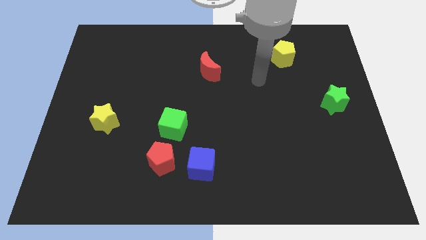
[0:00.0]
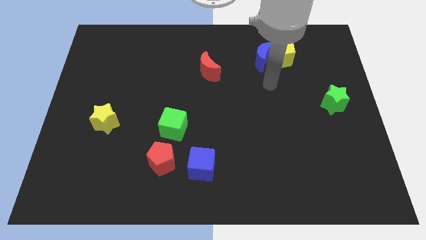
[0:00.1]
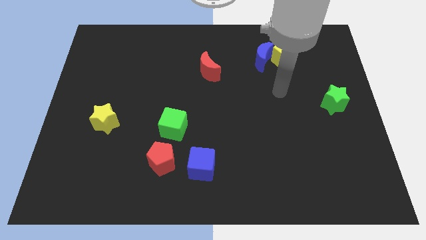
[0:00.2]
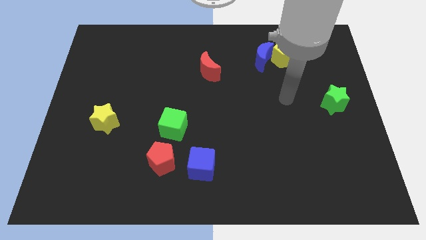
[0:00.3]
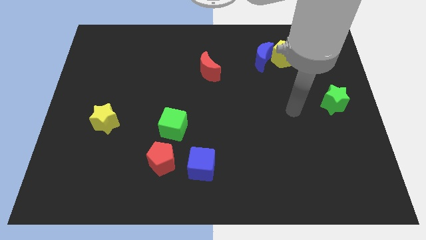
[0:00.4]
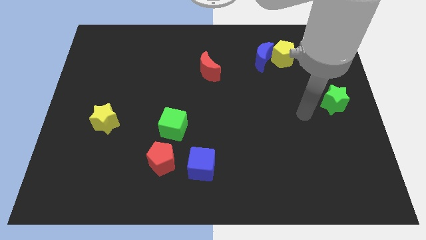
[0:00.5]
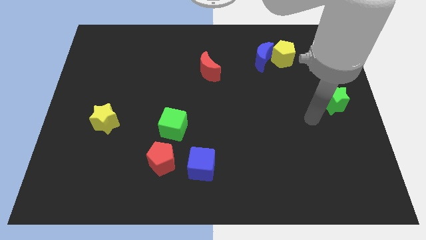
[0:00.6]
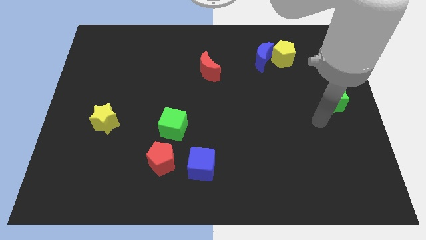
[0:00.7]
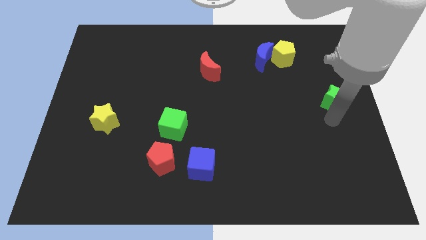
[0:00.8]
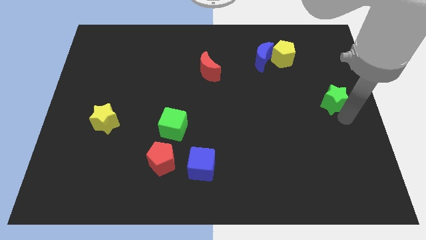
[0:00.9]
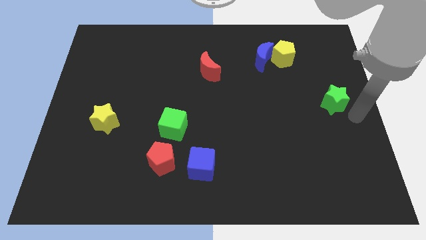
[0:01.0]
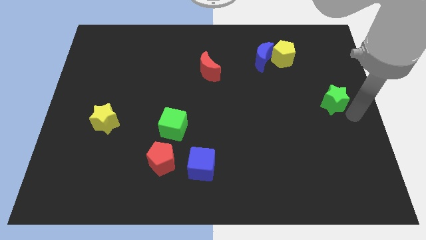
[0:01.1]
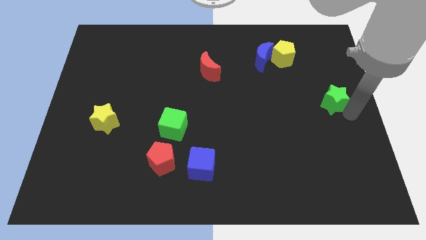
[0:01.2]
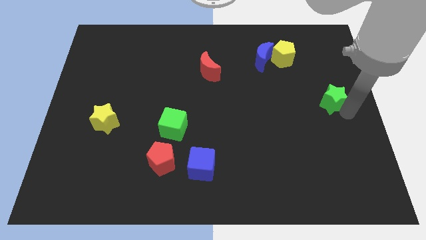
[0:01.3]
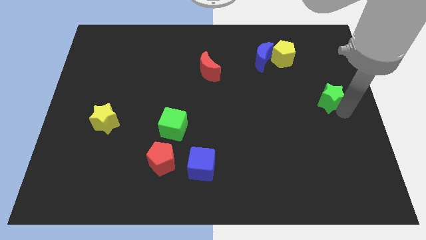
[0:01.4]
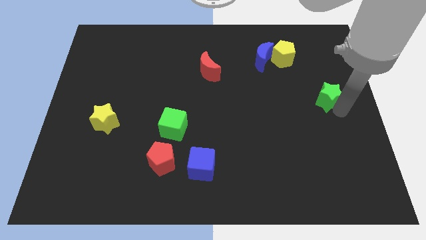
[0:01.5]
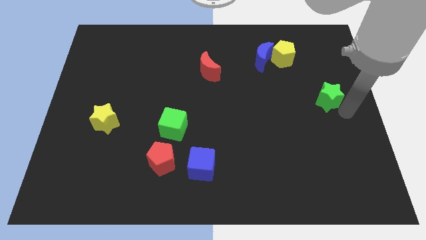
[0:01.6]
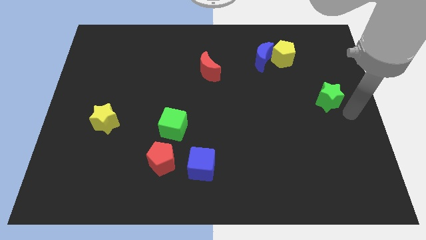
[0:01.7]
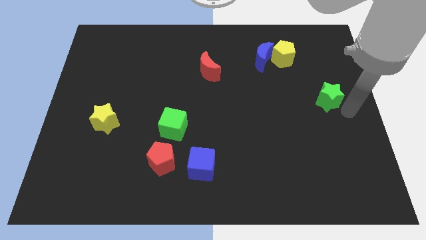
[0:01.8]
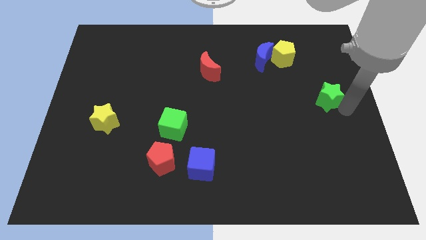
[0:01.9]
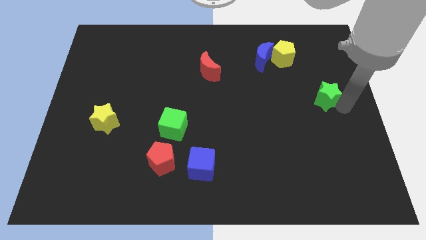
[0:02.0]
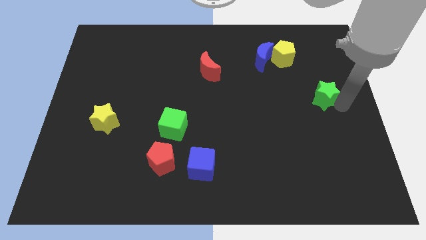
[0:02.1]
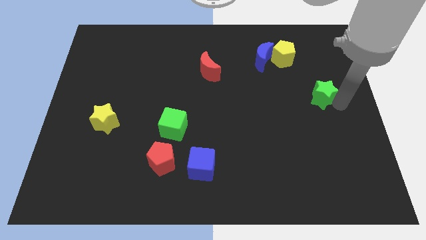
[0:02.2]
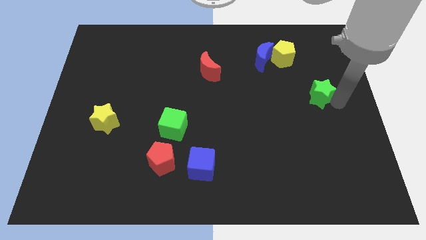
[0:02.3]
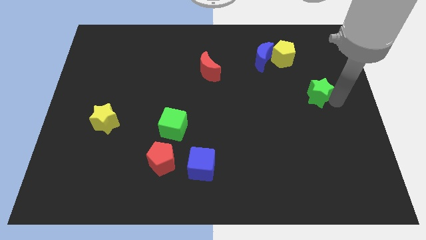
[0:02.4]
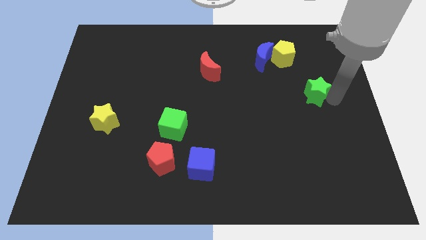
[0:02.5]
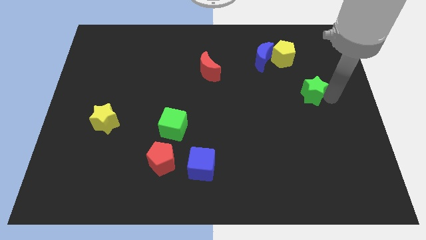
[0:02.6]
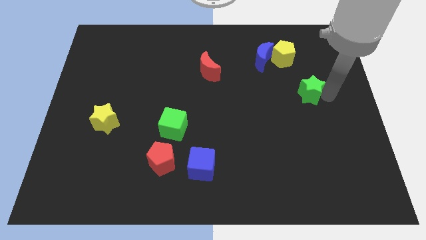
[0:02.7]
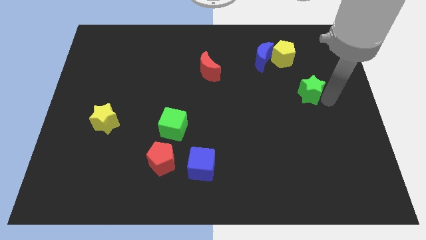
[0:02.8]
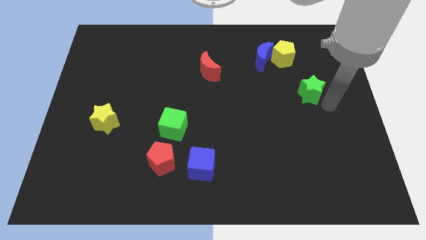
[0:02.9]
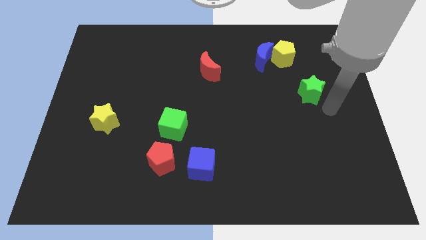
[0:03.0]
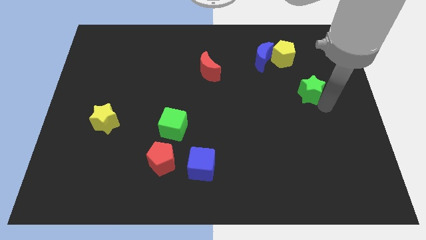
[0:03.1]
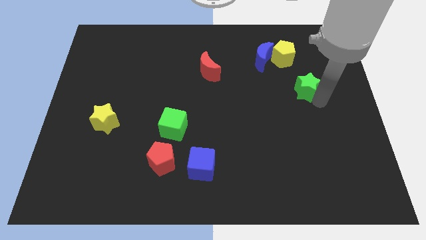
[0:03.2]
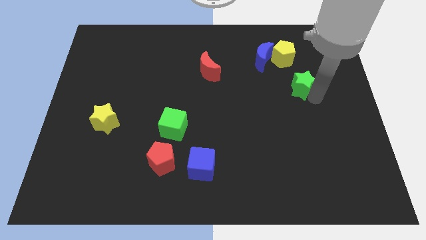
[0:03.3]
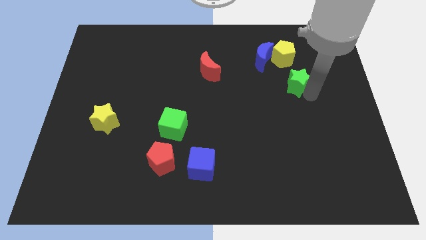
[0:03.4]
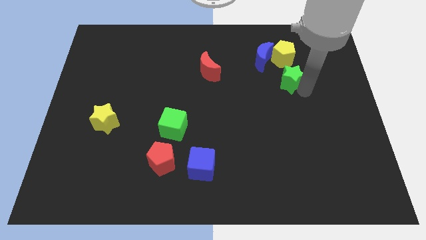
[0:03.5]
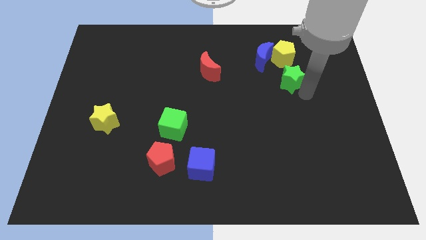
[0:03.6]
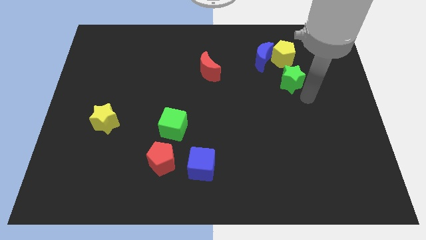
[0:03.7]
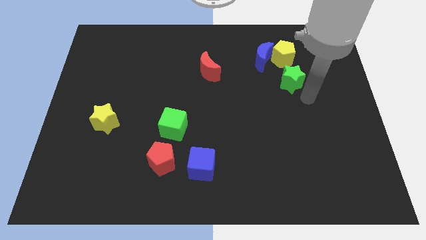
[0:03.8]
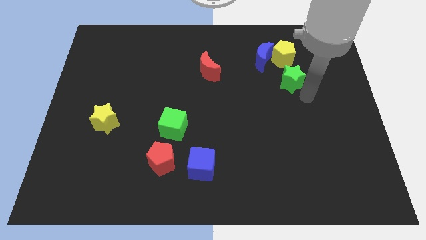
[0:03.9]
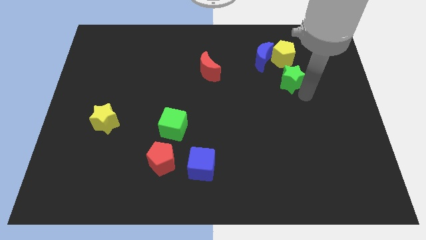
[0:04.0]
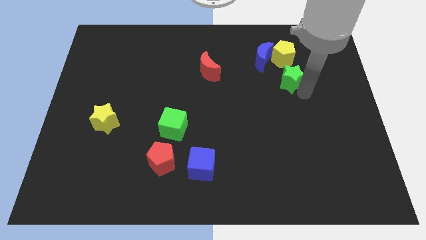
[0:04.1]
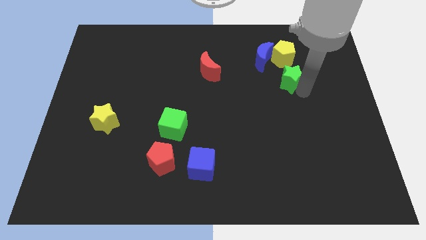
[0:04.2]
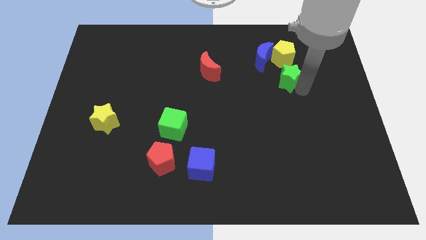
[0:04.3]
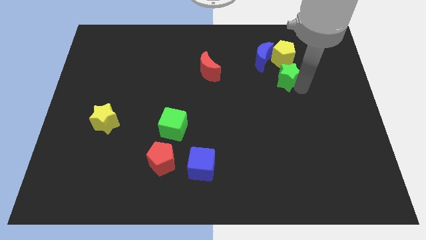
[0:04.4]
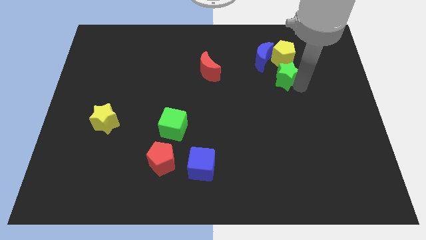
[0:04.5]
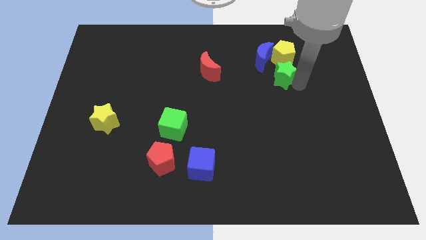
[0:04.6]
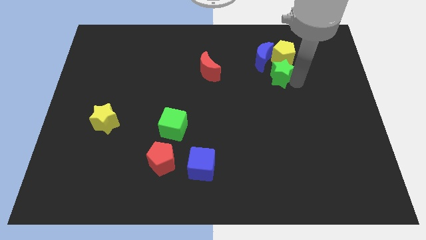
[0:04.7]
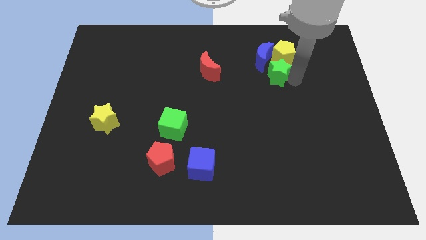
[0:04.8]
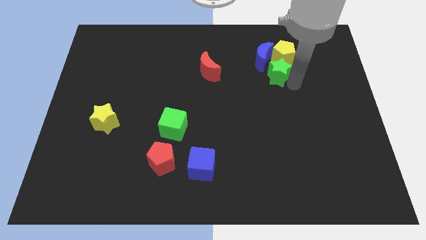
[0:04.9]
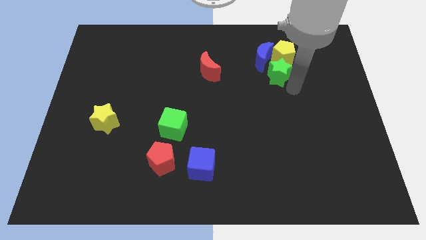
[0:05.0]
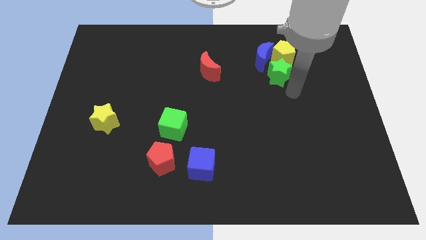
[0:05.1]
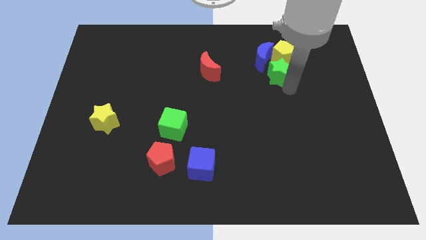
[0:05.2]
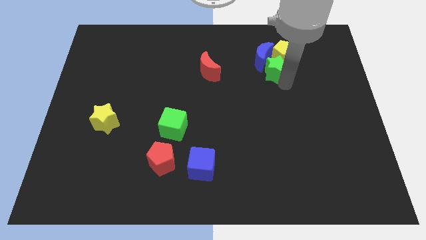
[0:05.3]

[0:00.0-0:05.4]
slide the green star towards the blue moon

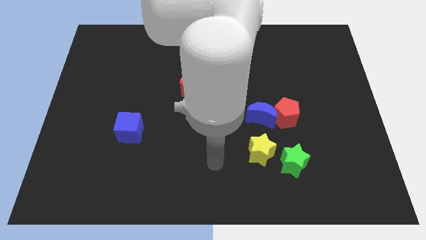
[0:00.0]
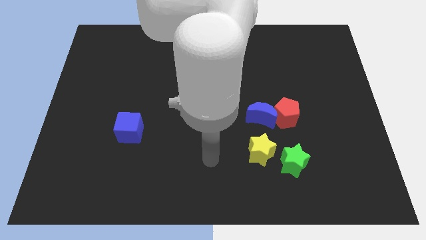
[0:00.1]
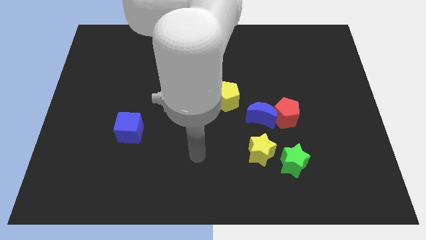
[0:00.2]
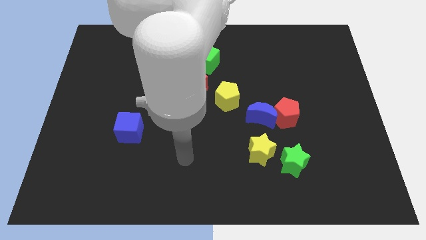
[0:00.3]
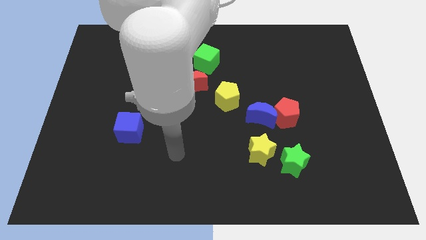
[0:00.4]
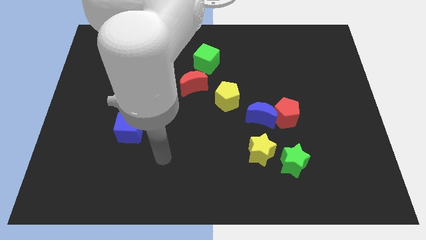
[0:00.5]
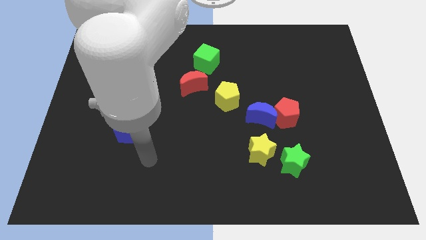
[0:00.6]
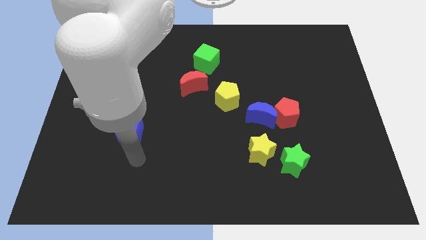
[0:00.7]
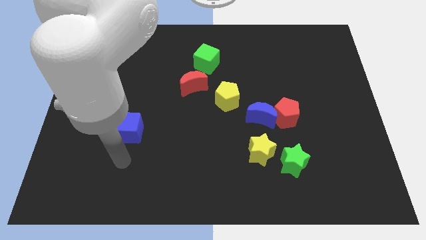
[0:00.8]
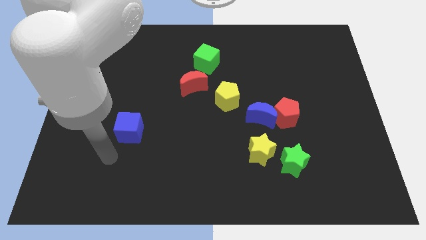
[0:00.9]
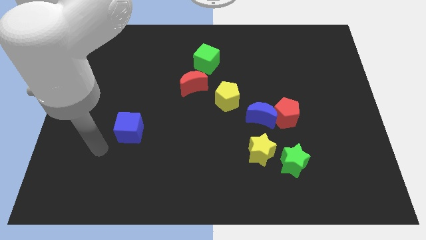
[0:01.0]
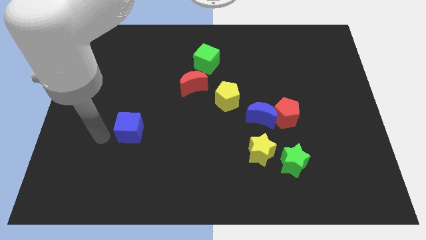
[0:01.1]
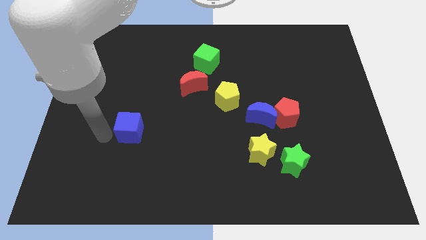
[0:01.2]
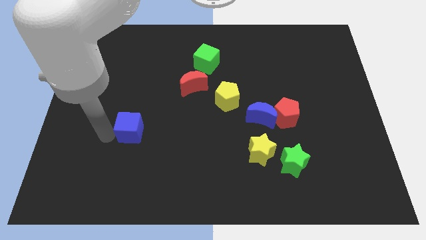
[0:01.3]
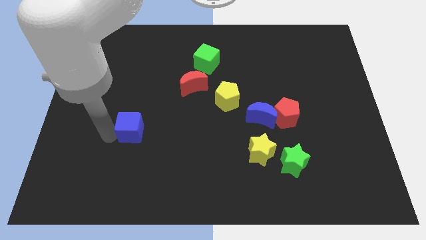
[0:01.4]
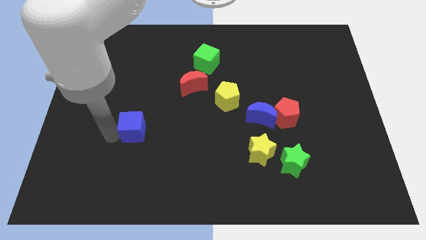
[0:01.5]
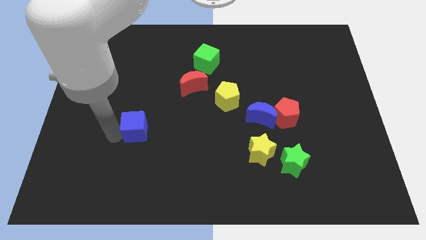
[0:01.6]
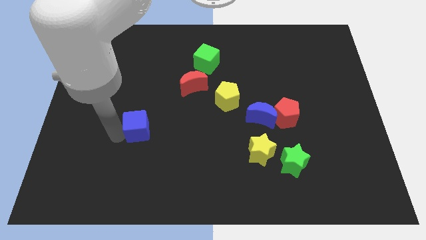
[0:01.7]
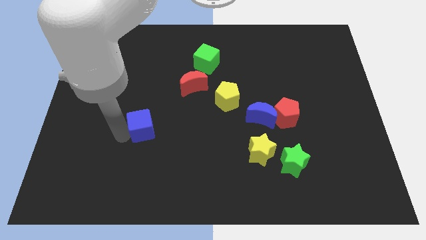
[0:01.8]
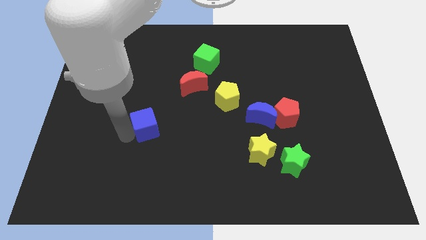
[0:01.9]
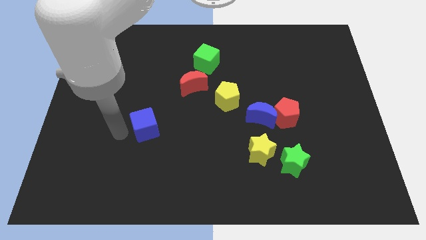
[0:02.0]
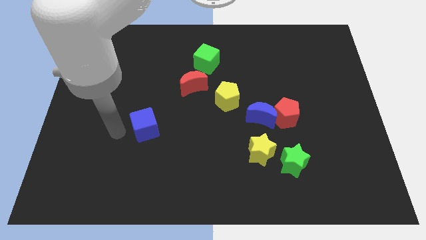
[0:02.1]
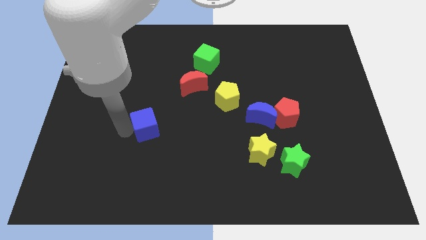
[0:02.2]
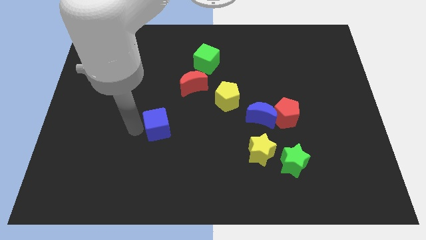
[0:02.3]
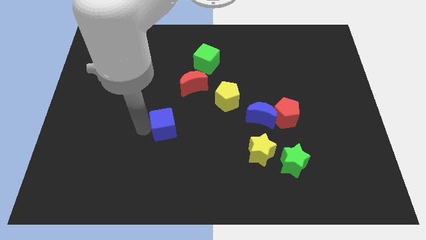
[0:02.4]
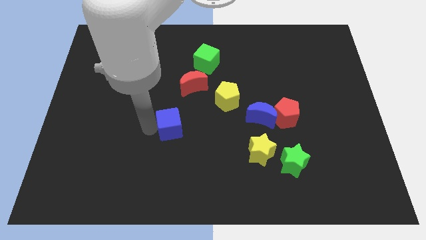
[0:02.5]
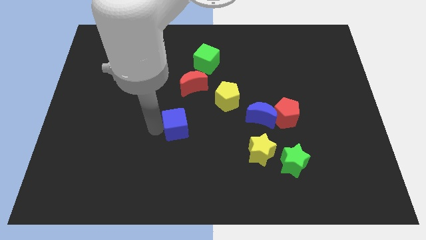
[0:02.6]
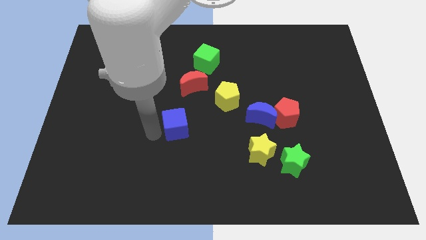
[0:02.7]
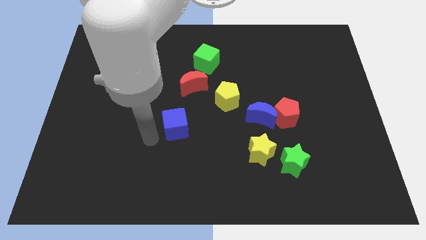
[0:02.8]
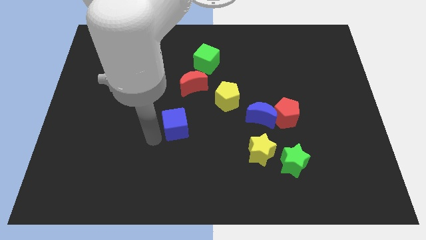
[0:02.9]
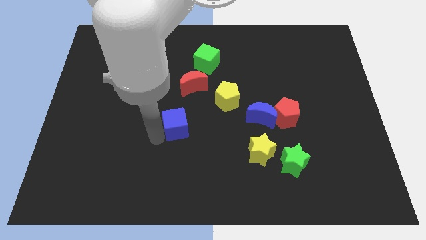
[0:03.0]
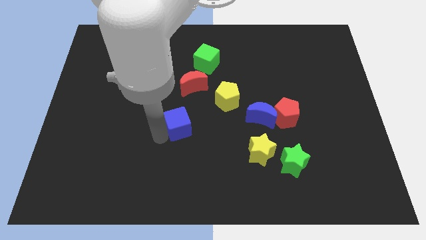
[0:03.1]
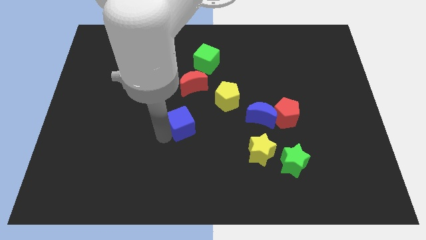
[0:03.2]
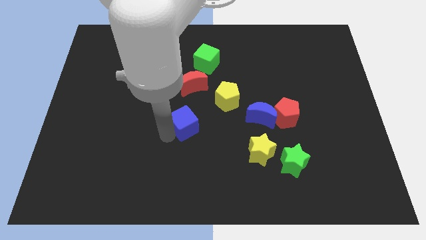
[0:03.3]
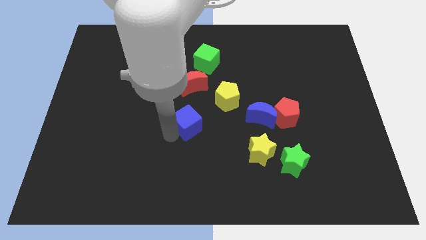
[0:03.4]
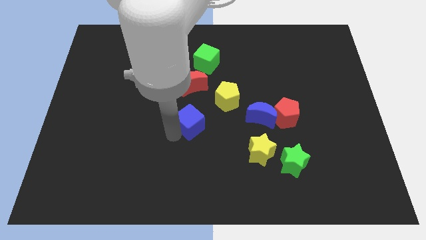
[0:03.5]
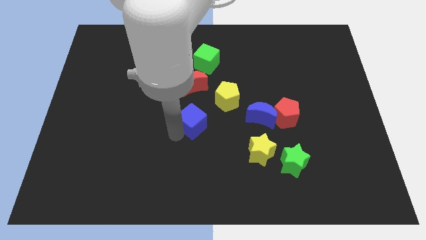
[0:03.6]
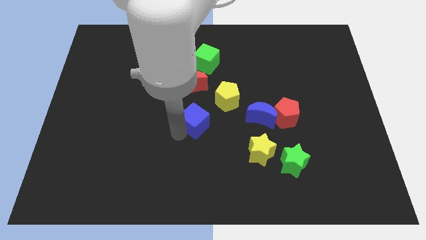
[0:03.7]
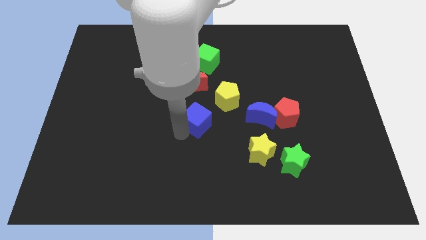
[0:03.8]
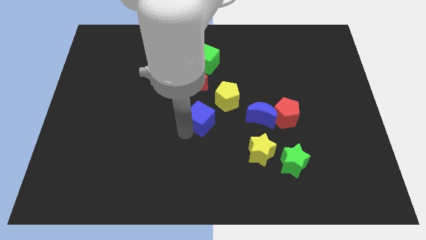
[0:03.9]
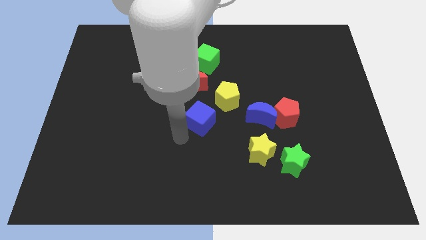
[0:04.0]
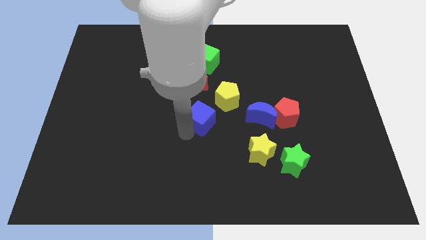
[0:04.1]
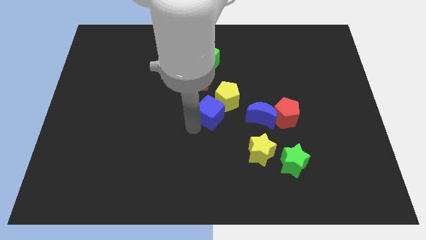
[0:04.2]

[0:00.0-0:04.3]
slide the blue cube to the yellow pentagon
